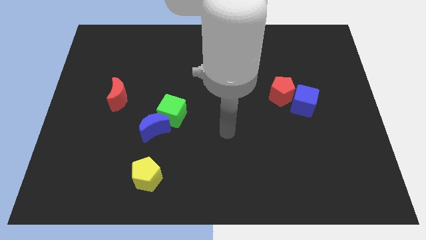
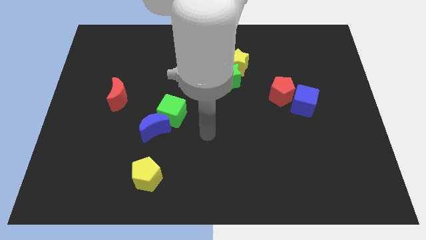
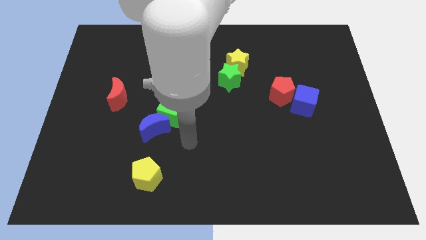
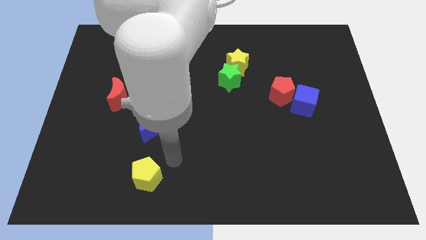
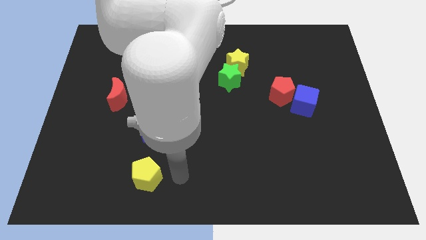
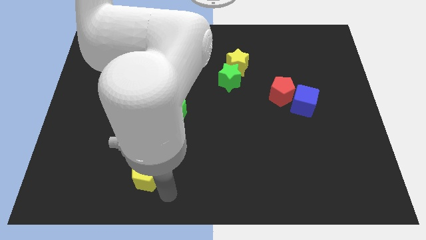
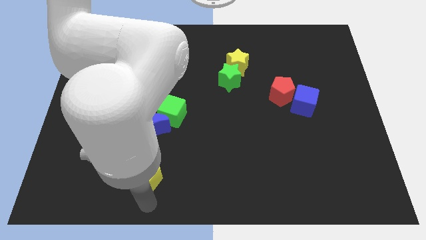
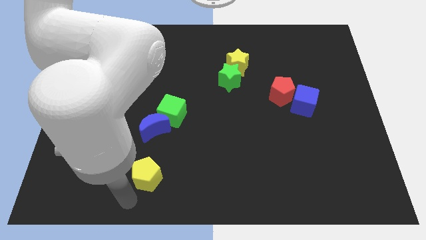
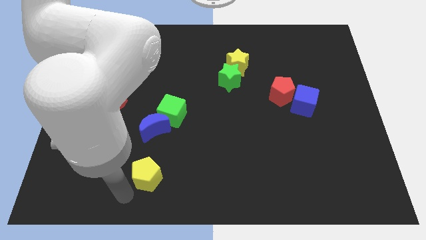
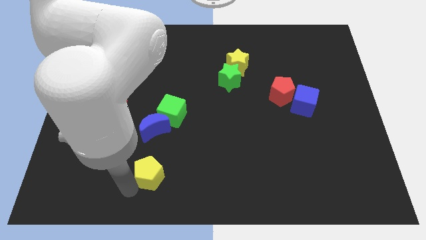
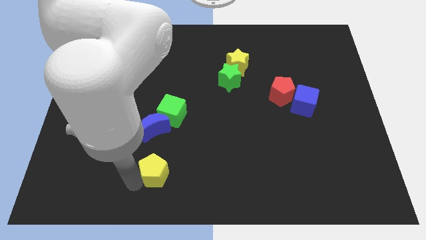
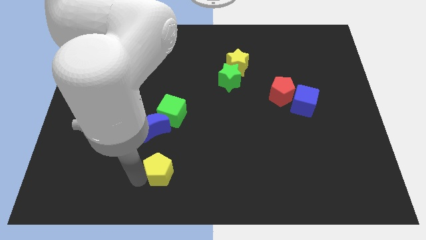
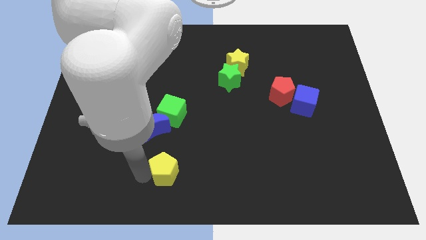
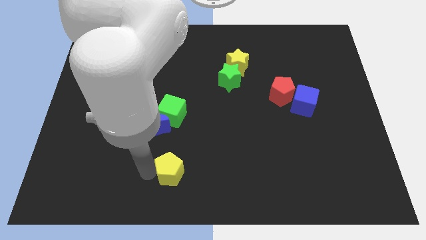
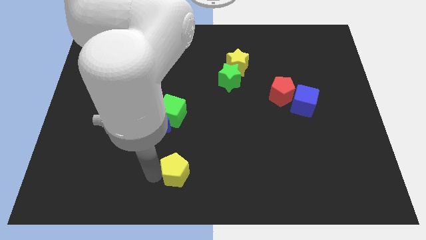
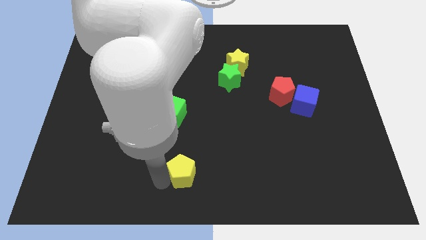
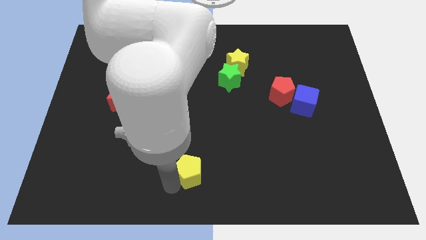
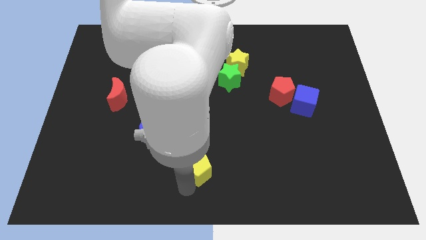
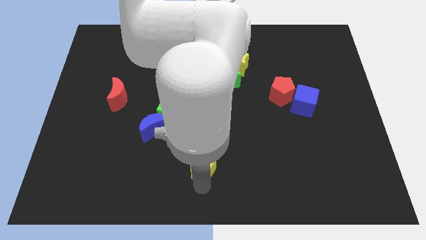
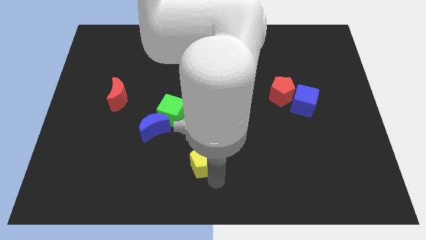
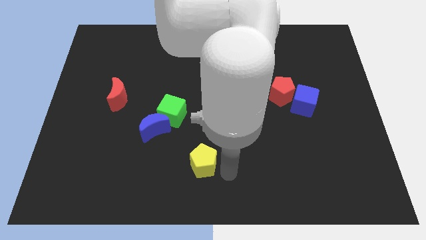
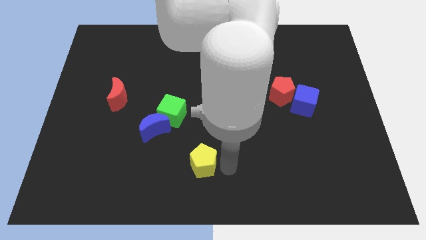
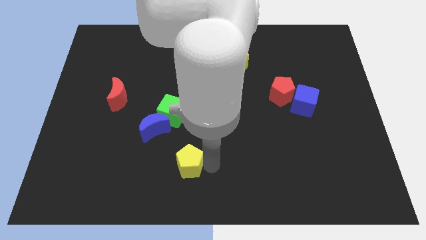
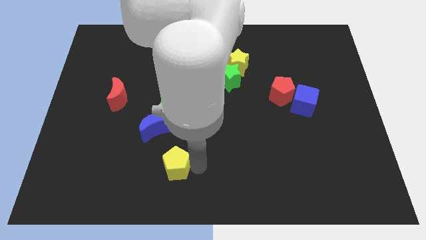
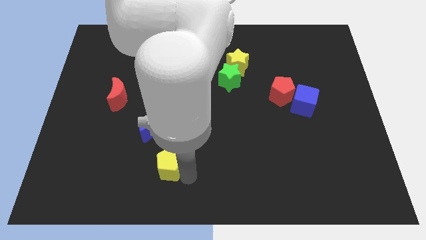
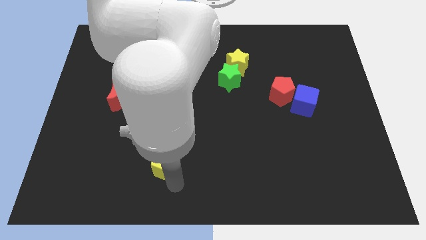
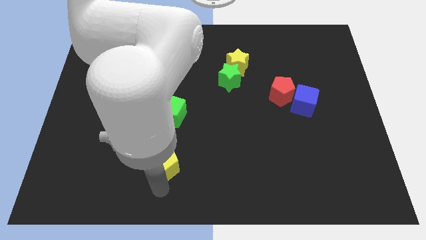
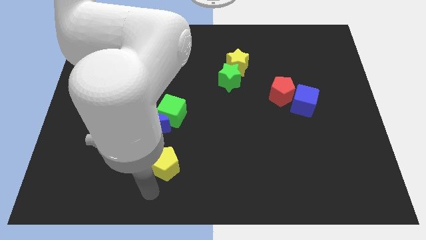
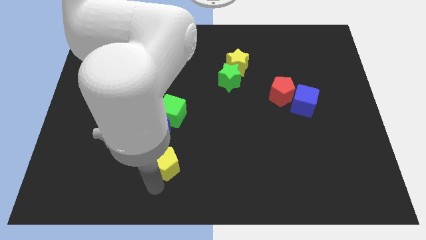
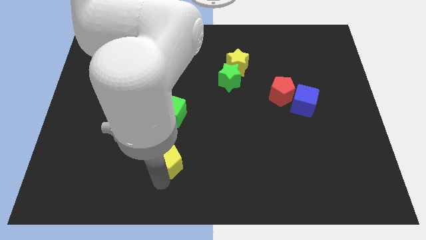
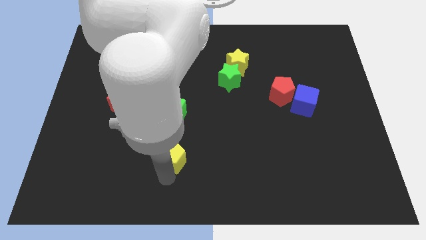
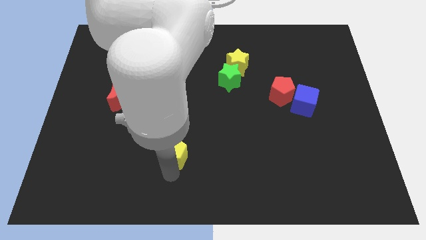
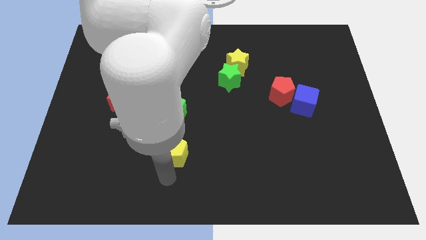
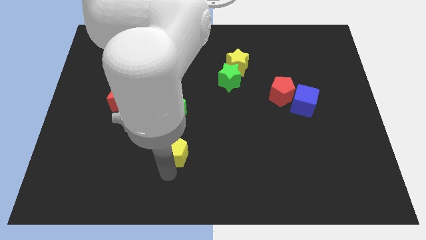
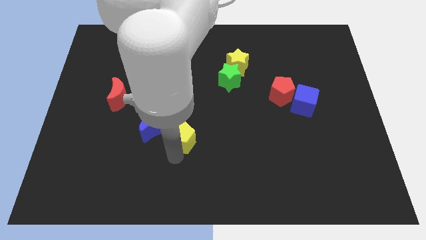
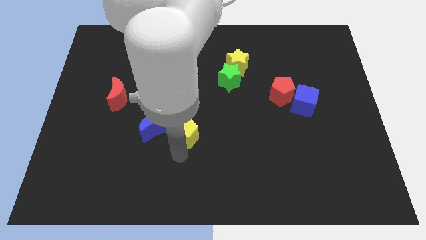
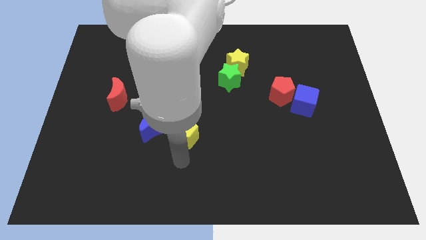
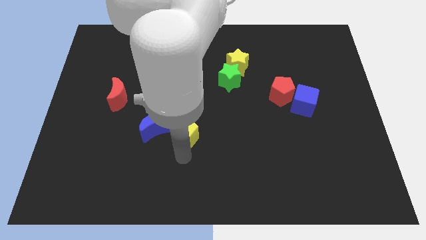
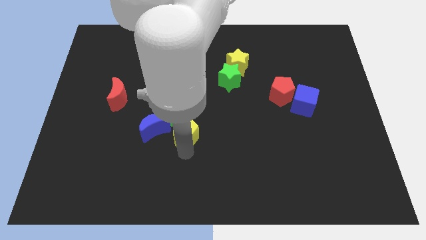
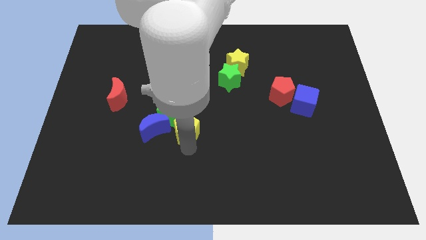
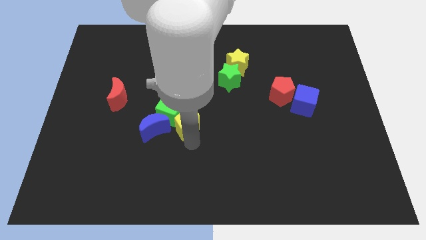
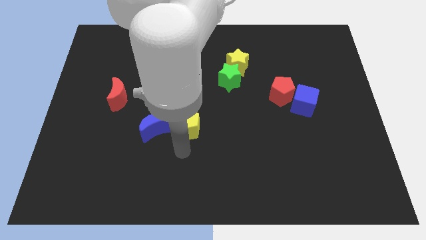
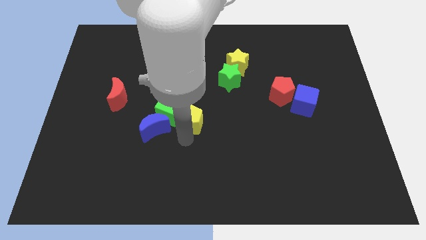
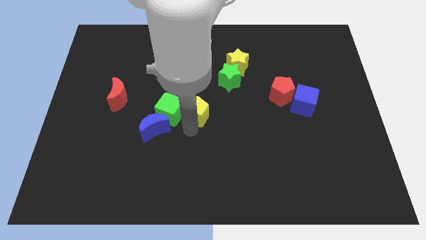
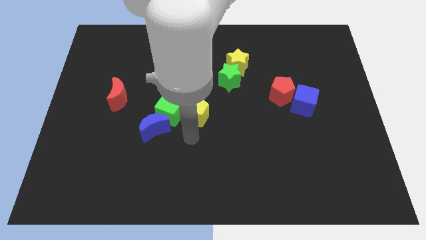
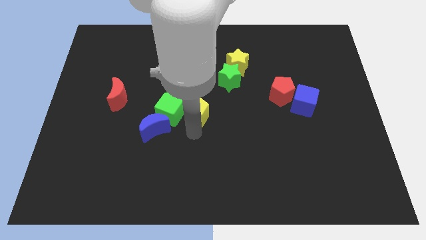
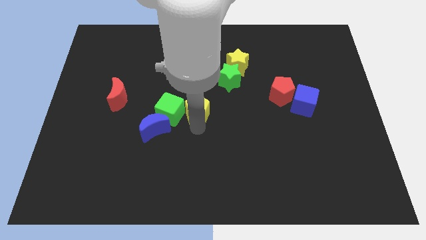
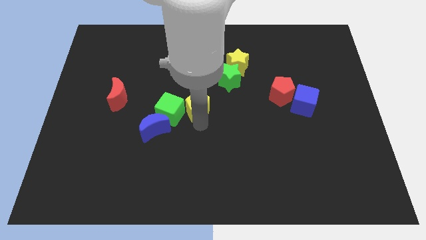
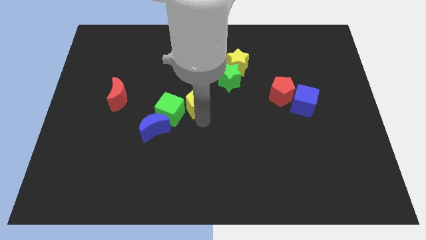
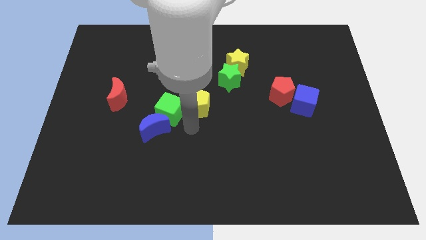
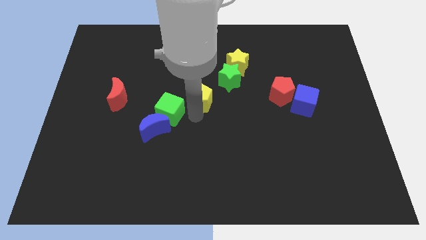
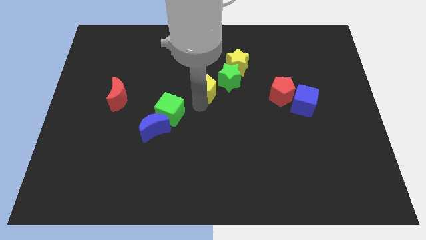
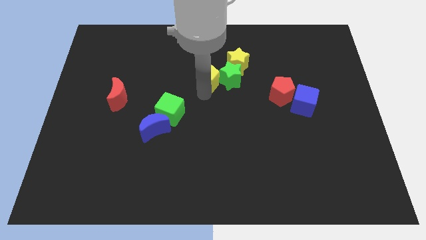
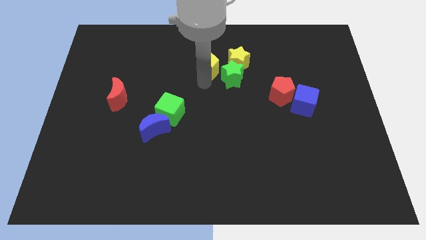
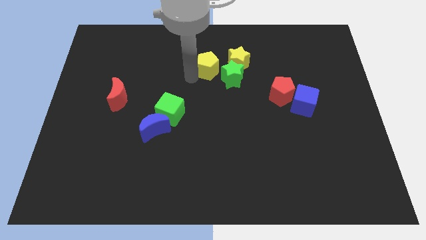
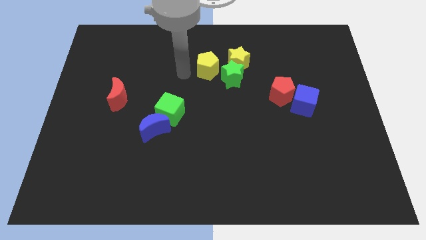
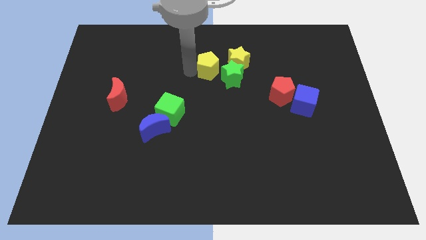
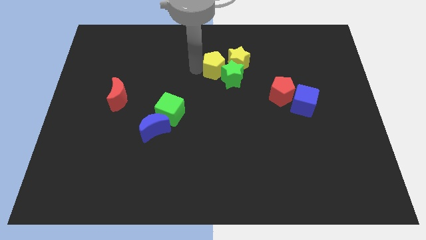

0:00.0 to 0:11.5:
put the yellow pentagon next to the yellow star

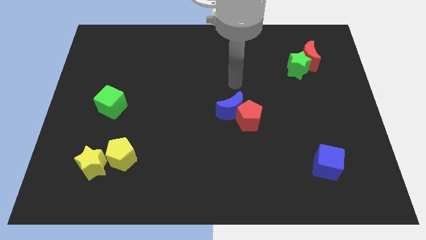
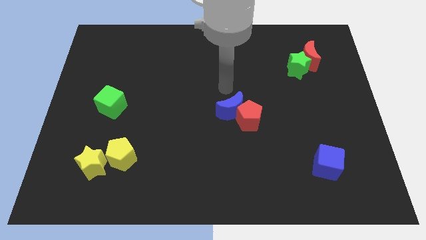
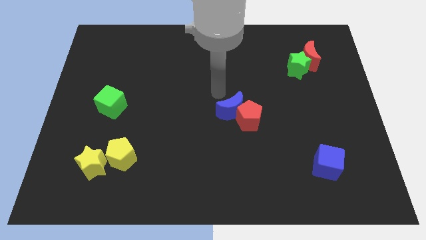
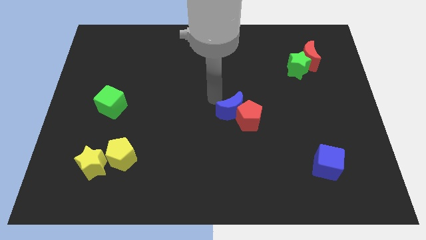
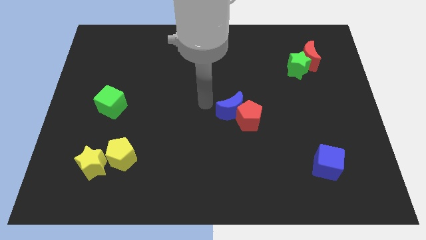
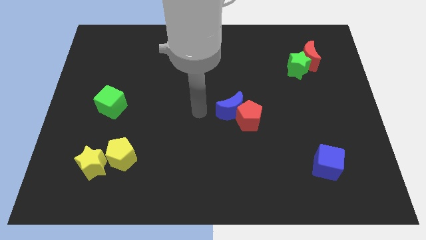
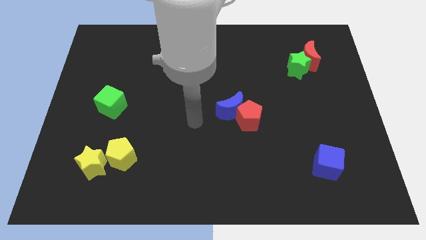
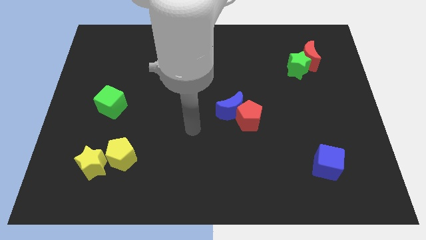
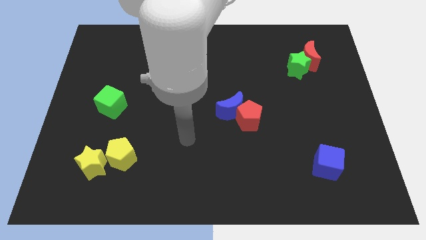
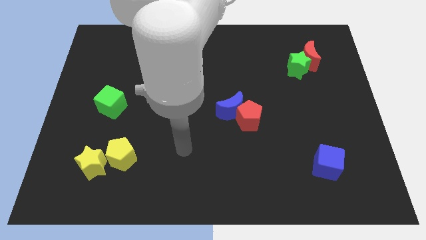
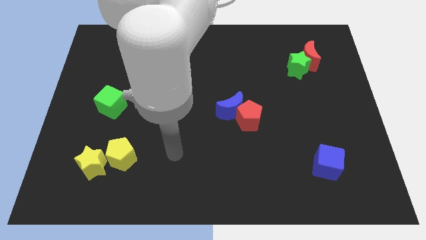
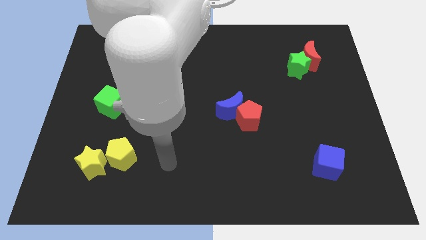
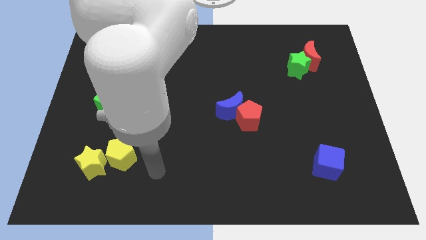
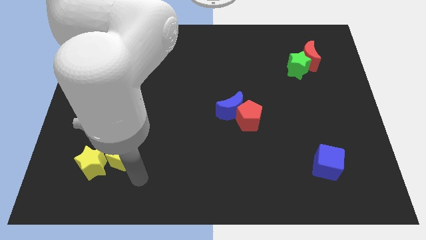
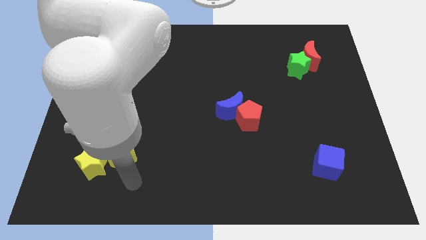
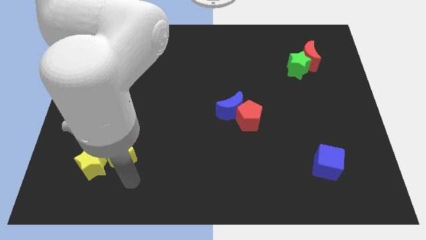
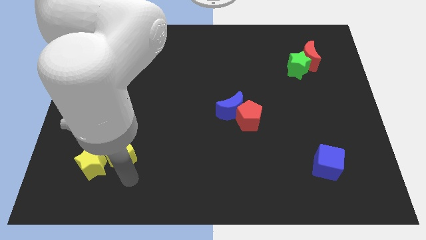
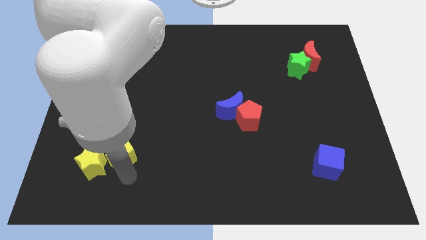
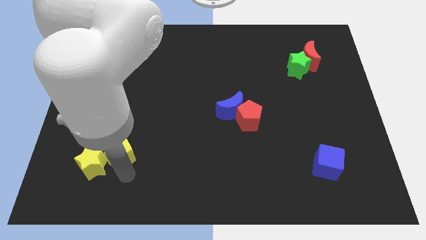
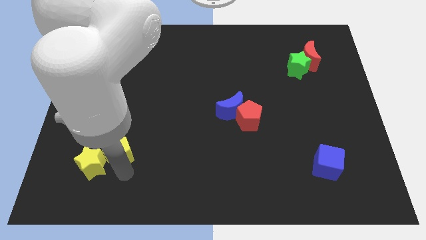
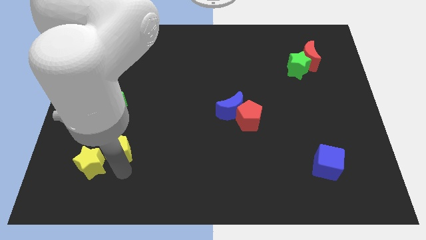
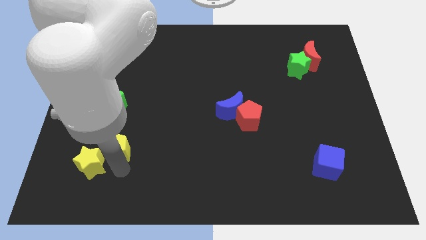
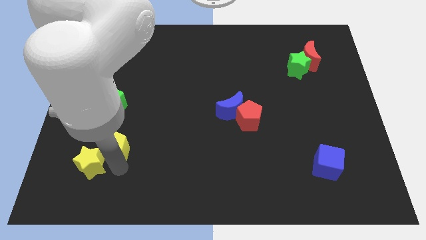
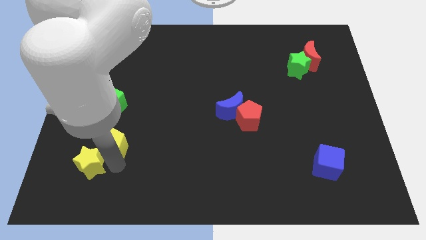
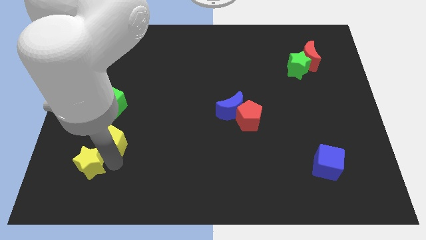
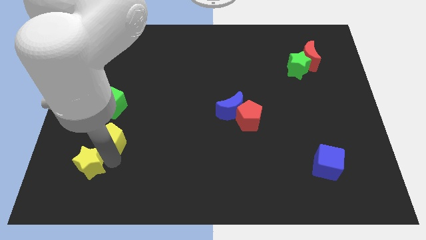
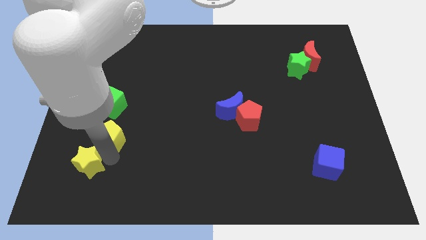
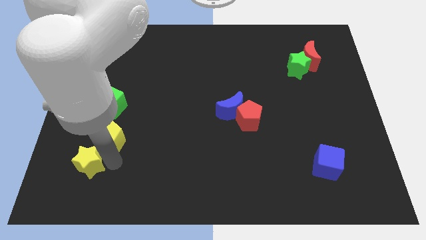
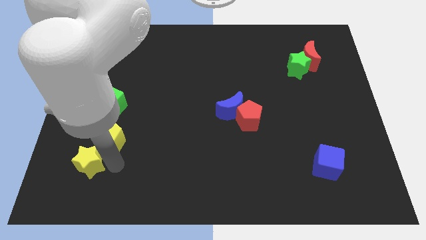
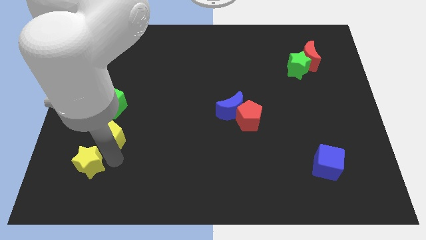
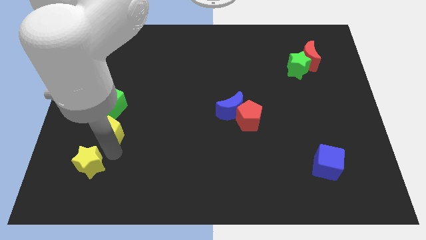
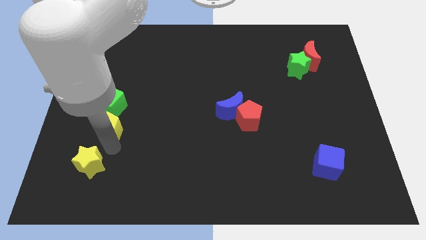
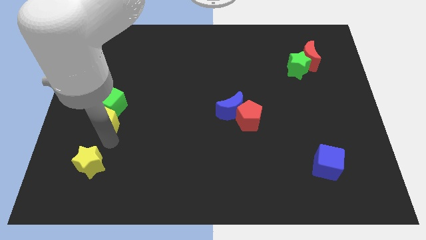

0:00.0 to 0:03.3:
move the yellow pentagon towards the green cube
